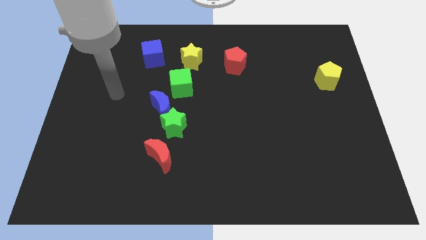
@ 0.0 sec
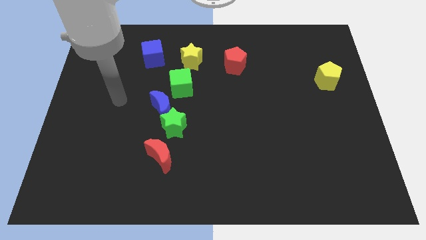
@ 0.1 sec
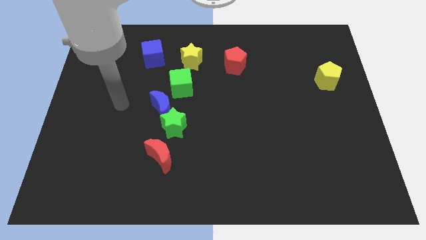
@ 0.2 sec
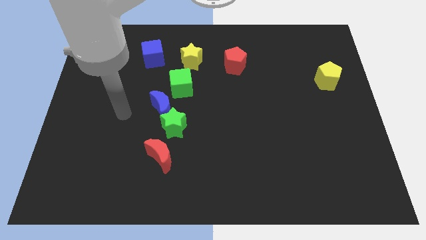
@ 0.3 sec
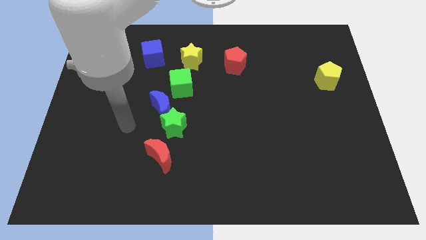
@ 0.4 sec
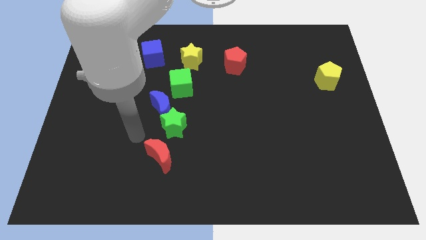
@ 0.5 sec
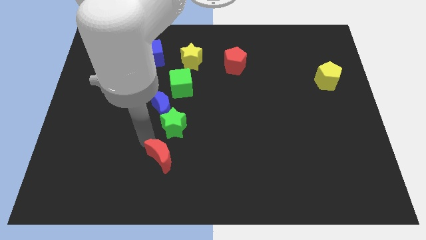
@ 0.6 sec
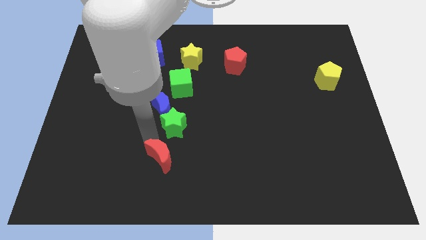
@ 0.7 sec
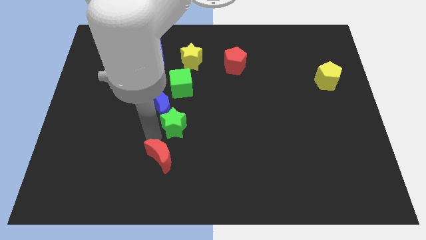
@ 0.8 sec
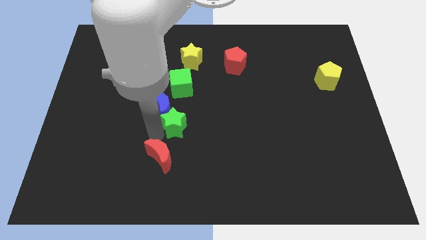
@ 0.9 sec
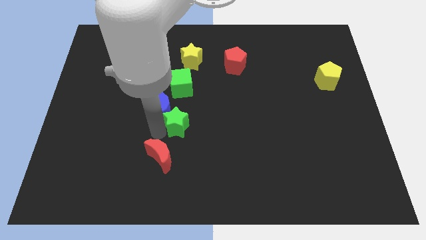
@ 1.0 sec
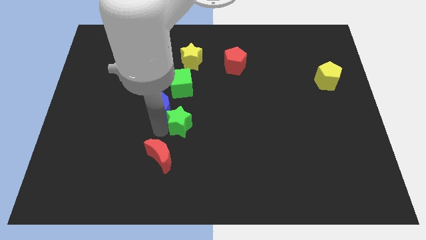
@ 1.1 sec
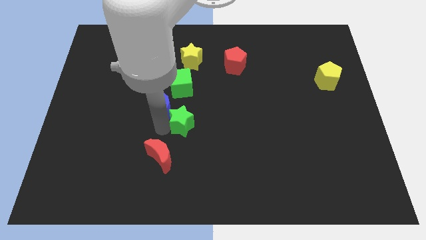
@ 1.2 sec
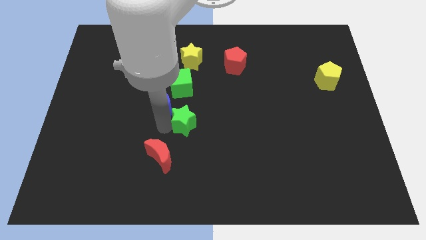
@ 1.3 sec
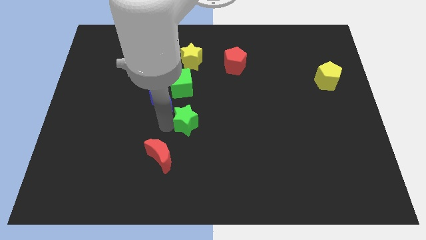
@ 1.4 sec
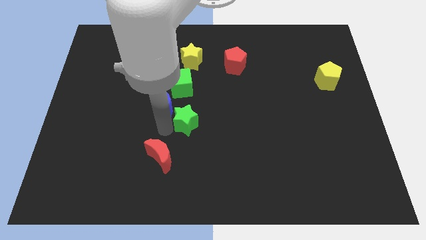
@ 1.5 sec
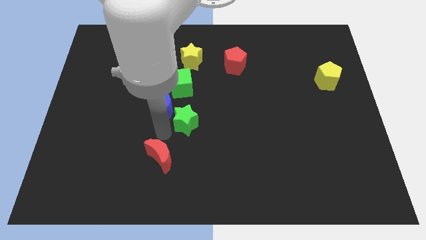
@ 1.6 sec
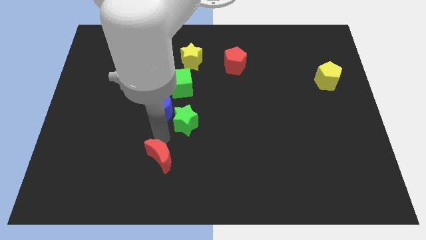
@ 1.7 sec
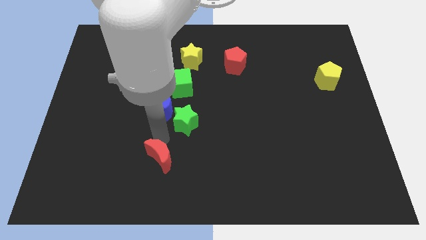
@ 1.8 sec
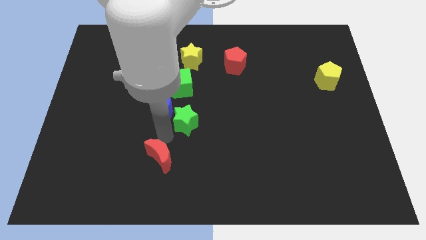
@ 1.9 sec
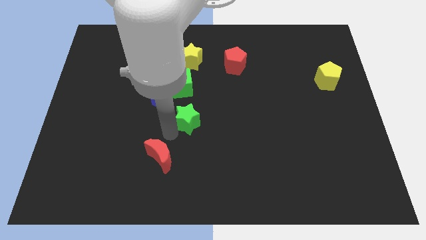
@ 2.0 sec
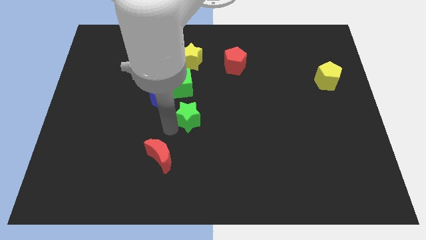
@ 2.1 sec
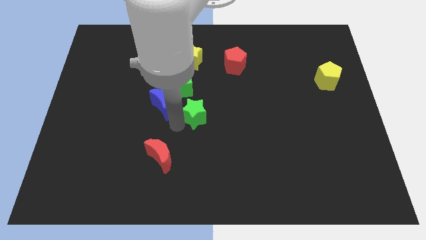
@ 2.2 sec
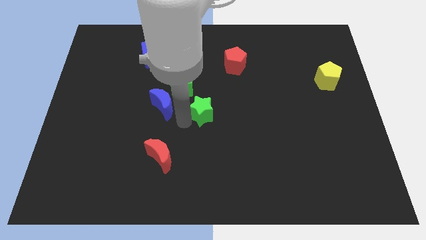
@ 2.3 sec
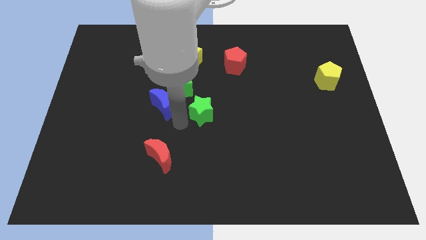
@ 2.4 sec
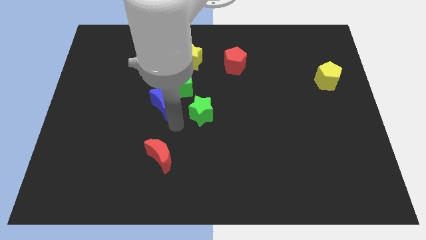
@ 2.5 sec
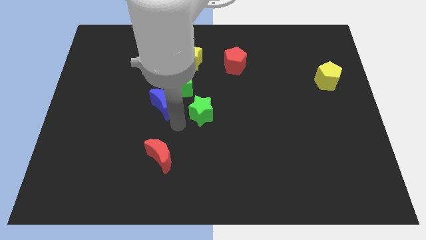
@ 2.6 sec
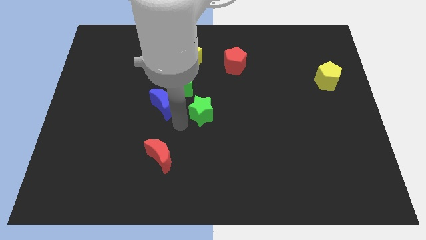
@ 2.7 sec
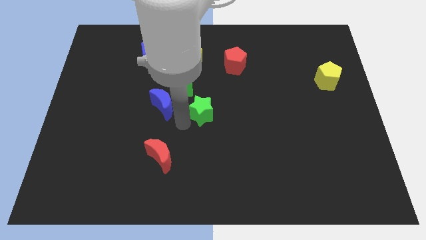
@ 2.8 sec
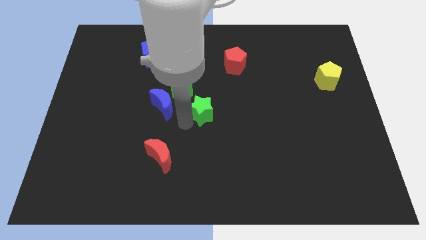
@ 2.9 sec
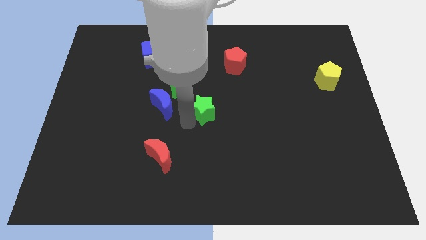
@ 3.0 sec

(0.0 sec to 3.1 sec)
move the green star away from the blue moon and red moon

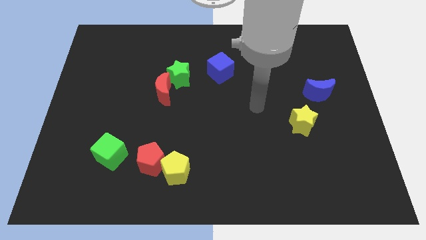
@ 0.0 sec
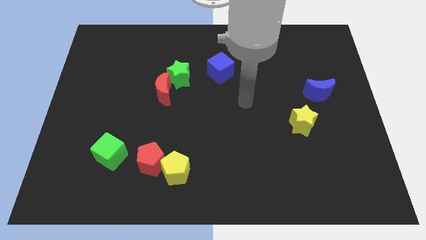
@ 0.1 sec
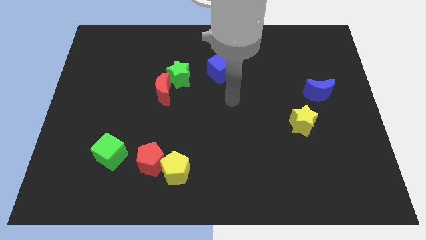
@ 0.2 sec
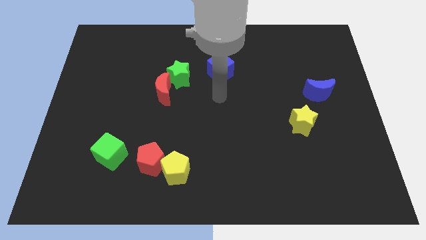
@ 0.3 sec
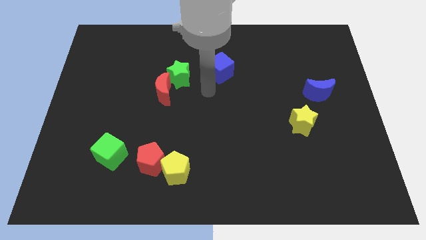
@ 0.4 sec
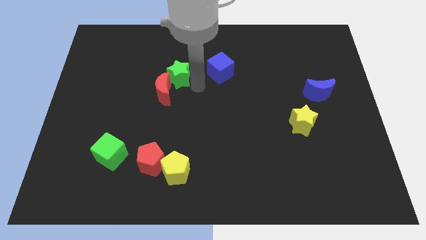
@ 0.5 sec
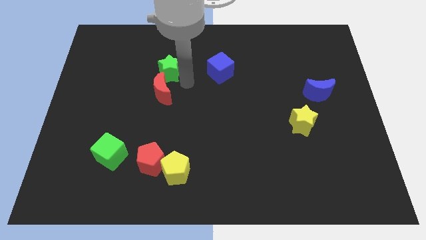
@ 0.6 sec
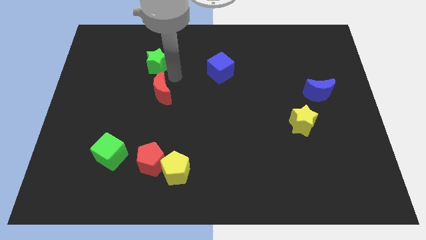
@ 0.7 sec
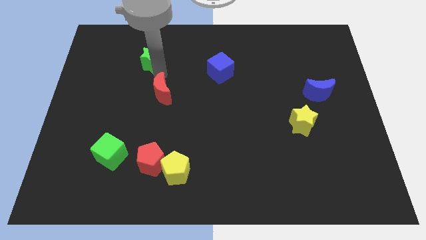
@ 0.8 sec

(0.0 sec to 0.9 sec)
pull the red moon apart from the green star

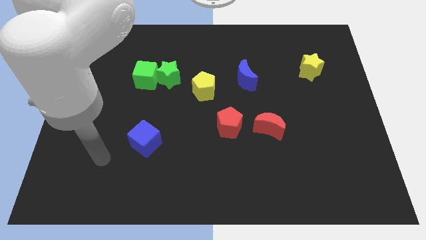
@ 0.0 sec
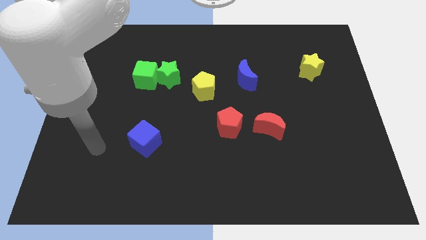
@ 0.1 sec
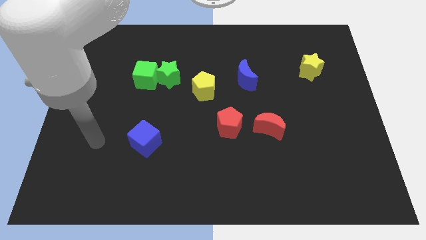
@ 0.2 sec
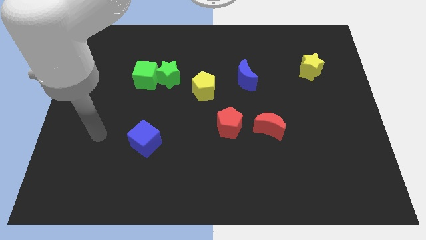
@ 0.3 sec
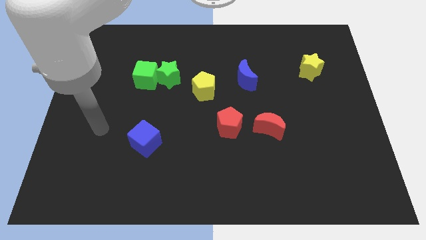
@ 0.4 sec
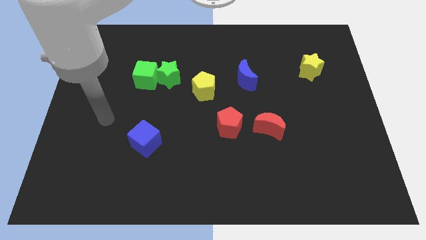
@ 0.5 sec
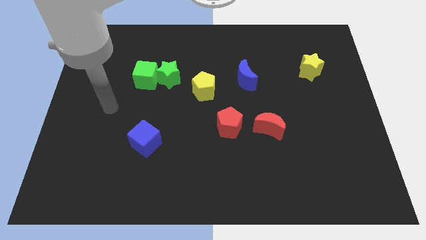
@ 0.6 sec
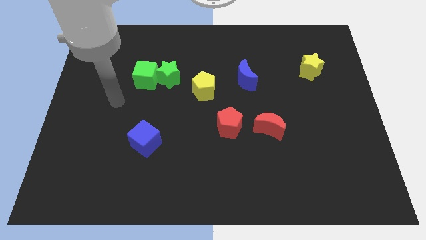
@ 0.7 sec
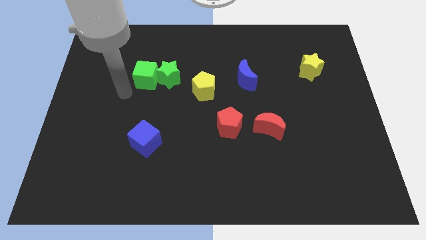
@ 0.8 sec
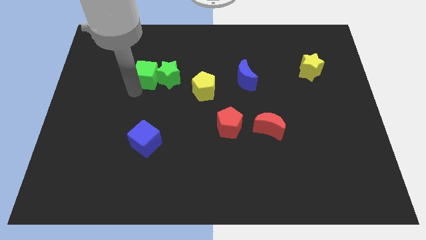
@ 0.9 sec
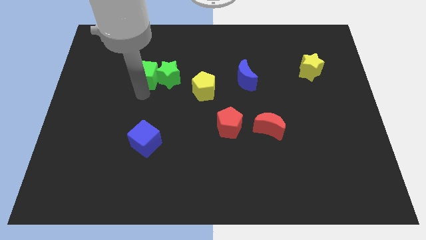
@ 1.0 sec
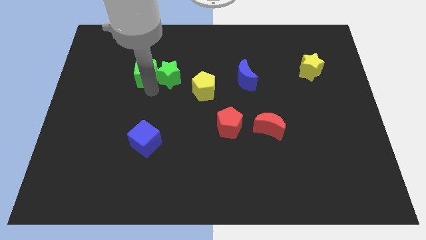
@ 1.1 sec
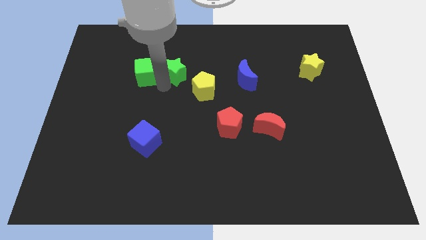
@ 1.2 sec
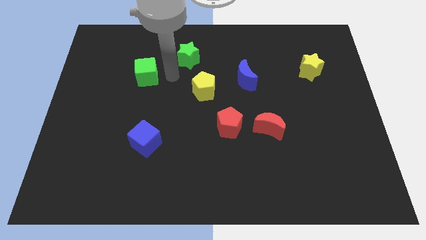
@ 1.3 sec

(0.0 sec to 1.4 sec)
pull the green cube apart from the green star

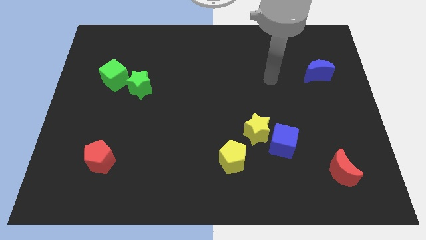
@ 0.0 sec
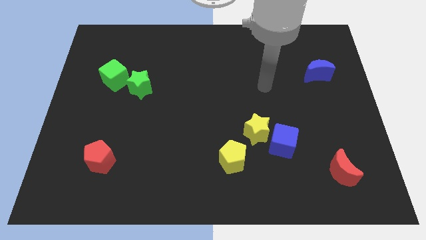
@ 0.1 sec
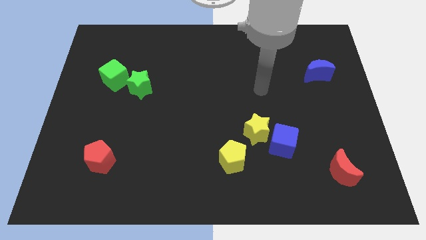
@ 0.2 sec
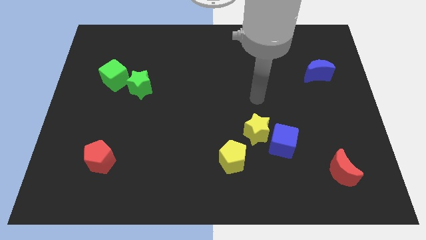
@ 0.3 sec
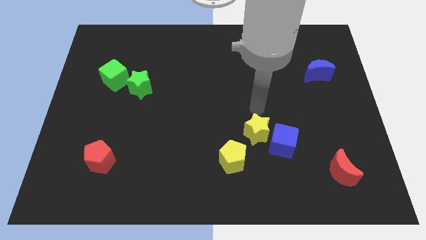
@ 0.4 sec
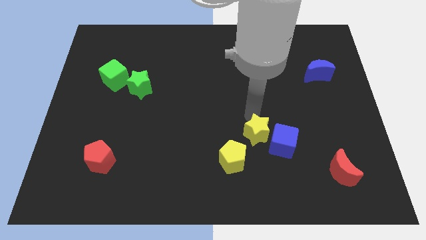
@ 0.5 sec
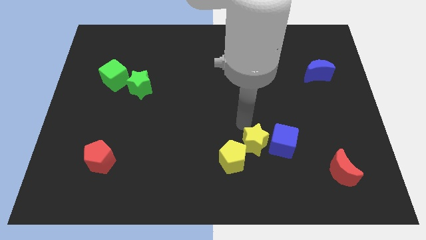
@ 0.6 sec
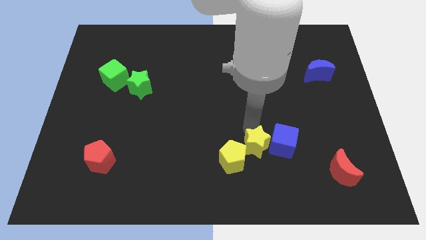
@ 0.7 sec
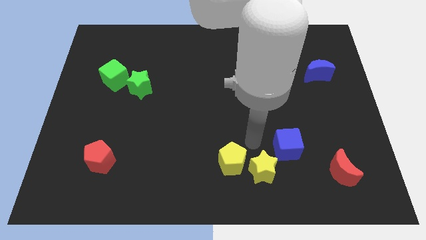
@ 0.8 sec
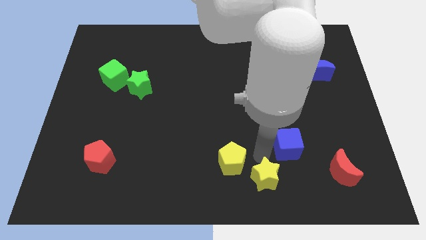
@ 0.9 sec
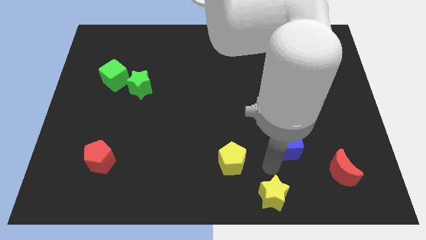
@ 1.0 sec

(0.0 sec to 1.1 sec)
pull the blue cube apart from the yellow star

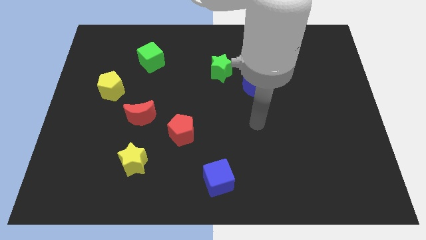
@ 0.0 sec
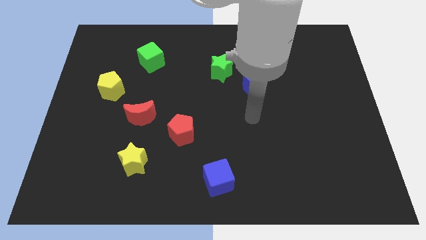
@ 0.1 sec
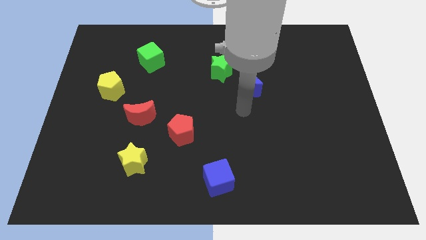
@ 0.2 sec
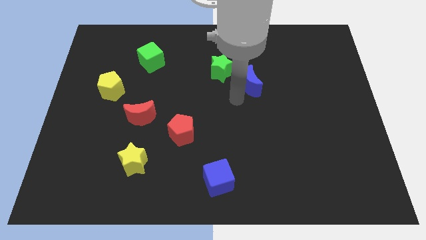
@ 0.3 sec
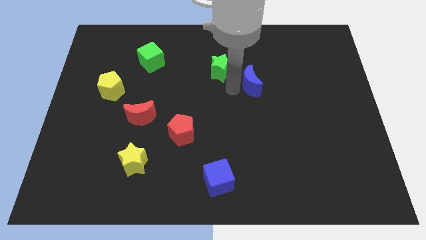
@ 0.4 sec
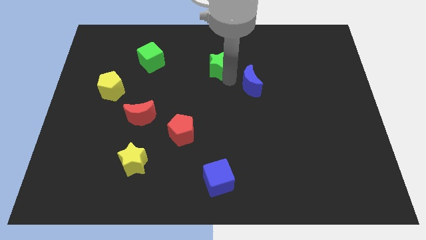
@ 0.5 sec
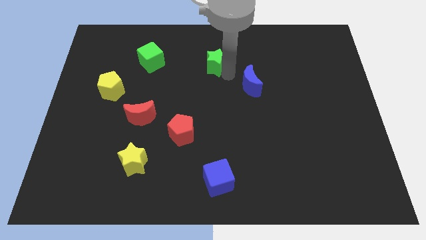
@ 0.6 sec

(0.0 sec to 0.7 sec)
move the blue moon away from the green star

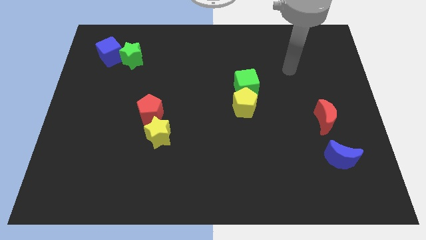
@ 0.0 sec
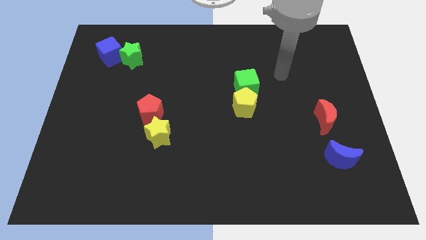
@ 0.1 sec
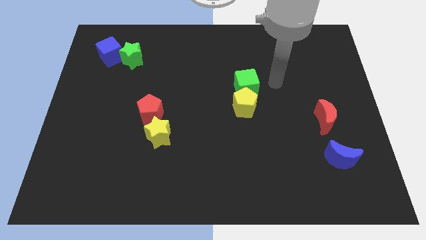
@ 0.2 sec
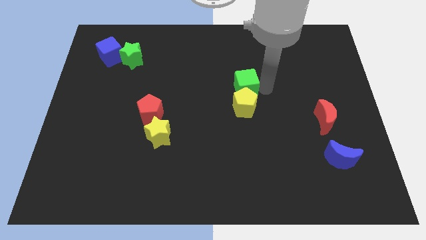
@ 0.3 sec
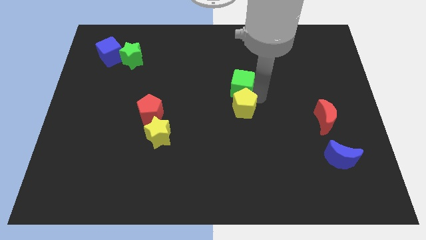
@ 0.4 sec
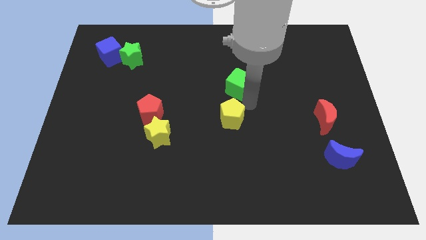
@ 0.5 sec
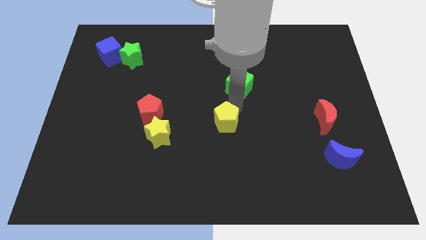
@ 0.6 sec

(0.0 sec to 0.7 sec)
move the green cube away from the yellow pentagon

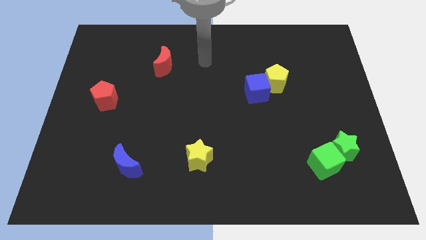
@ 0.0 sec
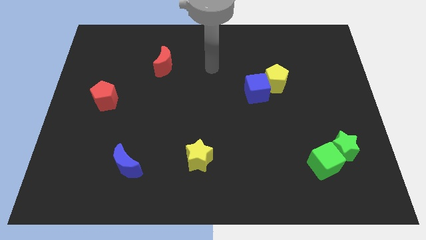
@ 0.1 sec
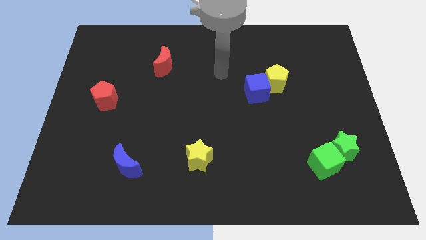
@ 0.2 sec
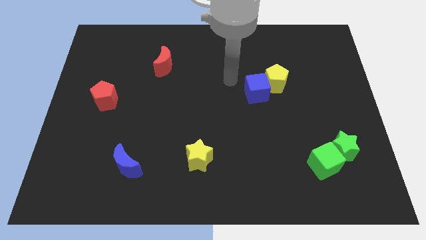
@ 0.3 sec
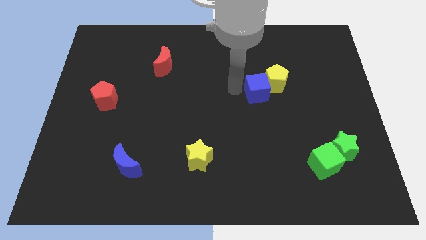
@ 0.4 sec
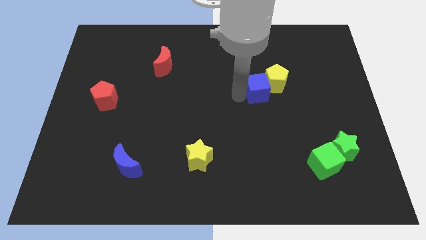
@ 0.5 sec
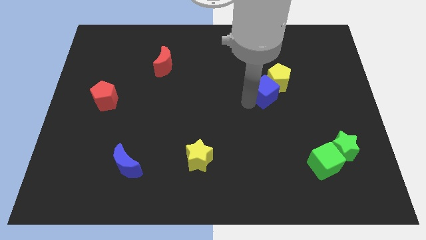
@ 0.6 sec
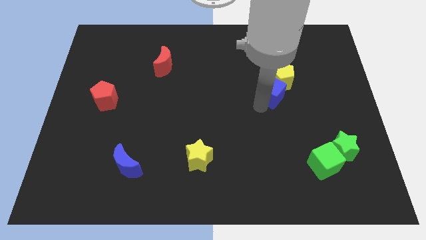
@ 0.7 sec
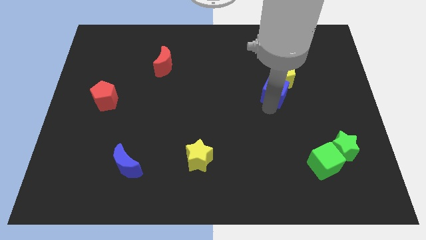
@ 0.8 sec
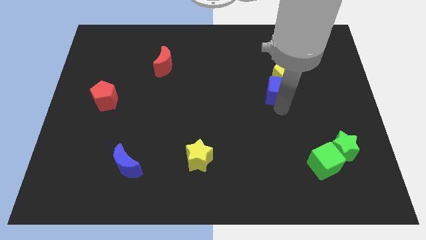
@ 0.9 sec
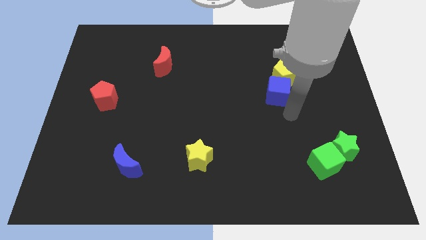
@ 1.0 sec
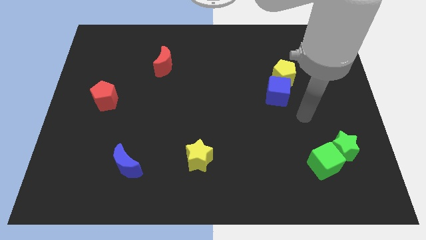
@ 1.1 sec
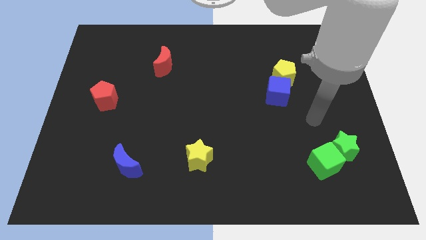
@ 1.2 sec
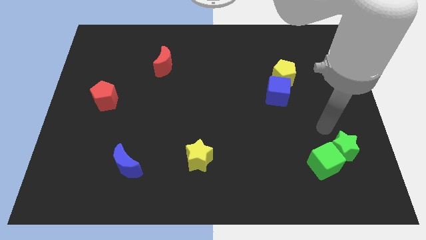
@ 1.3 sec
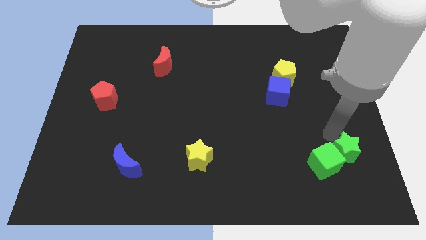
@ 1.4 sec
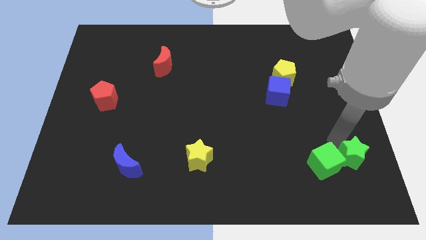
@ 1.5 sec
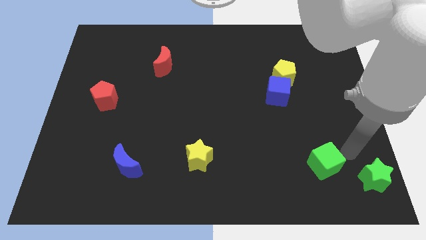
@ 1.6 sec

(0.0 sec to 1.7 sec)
move the green cube away from the green star
